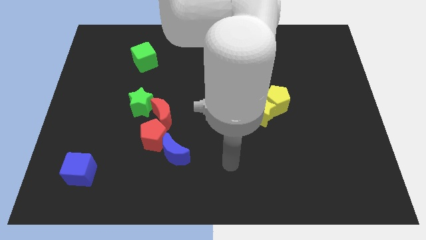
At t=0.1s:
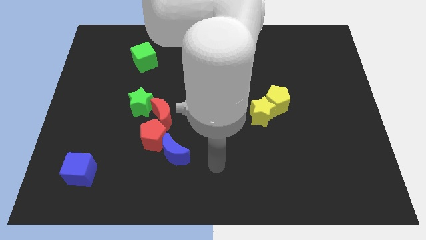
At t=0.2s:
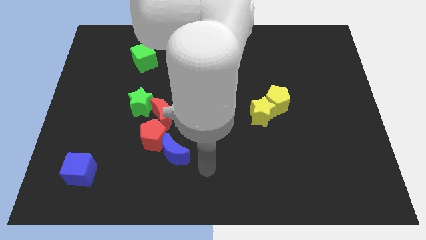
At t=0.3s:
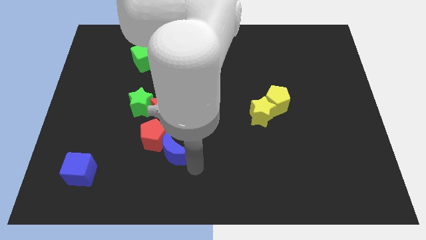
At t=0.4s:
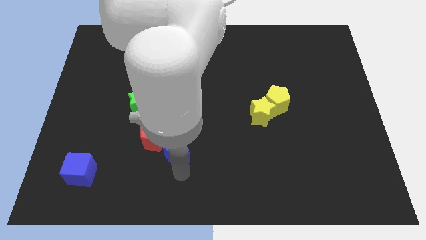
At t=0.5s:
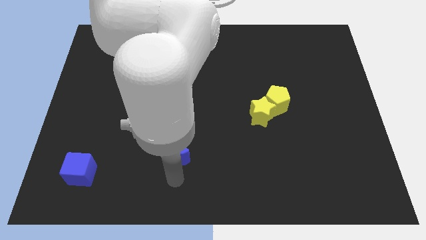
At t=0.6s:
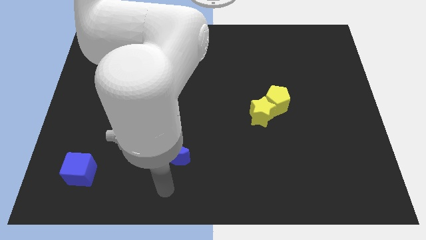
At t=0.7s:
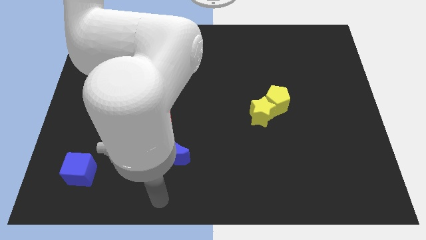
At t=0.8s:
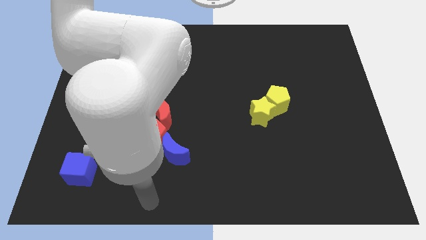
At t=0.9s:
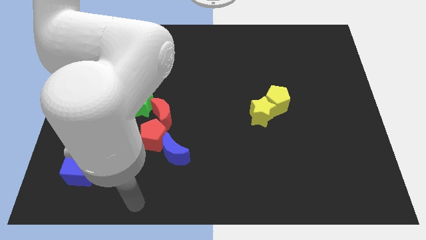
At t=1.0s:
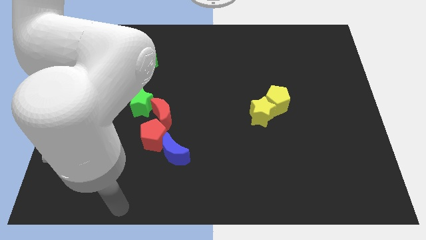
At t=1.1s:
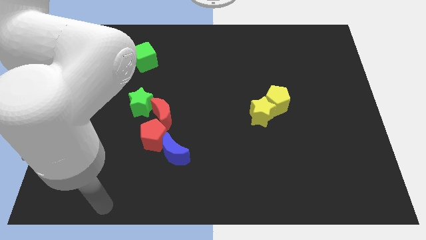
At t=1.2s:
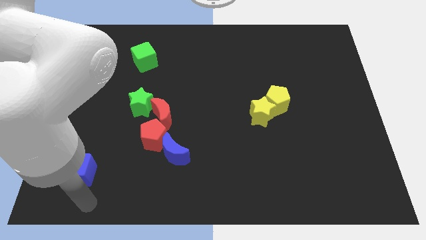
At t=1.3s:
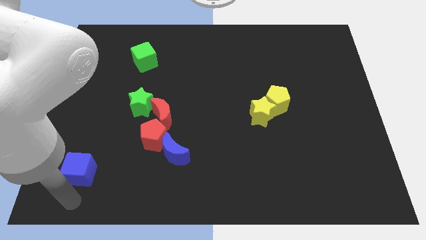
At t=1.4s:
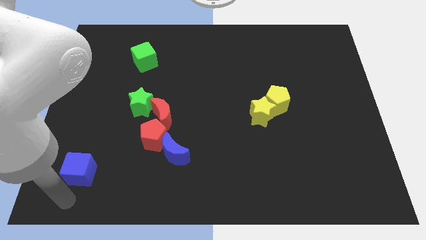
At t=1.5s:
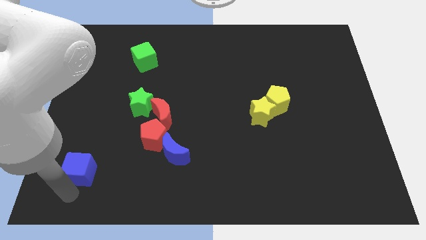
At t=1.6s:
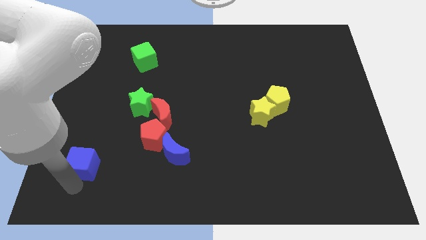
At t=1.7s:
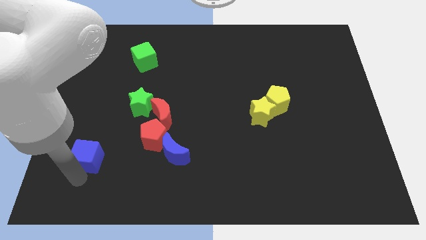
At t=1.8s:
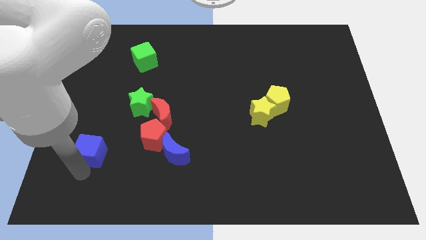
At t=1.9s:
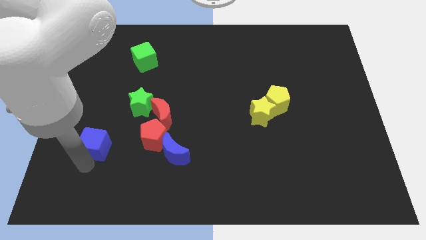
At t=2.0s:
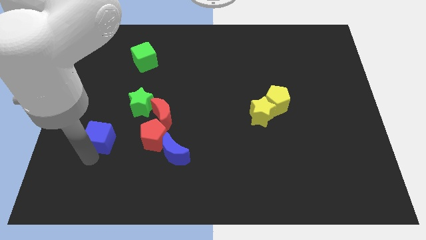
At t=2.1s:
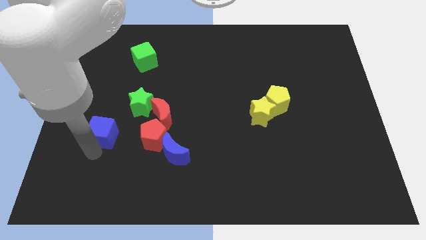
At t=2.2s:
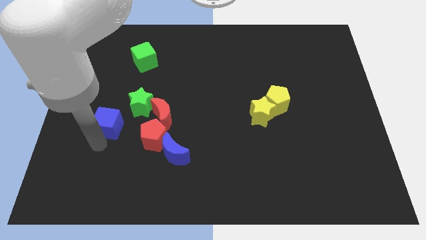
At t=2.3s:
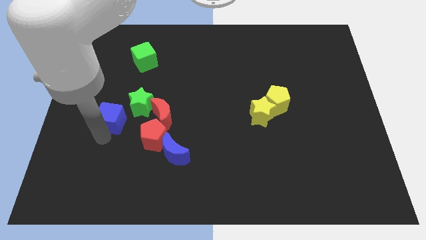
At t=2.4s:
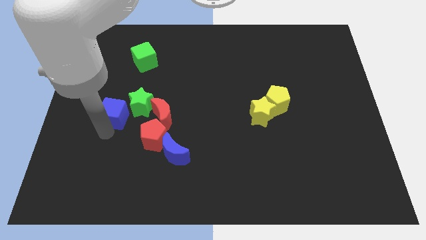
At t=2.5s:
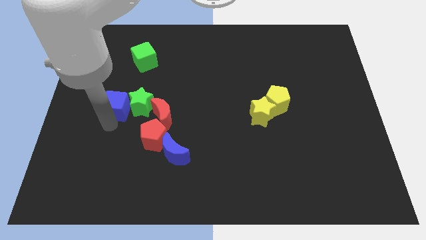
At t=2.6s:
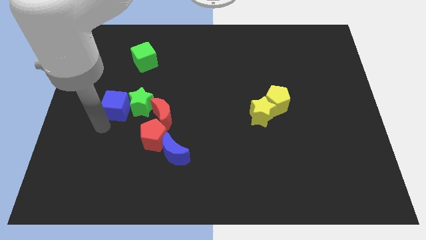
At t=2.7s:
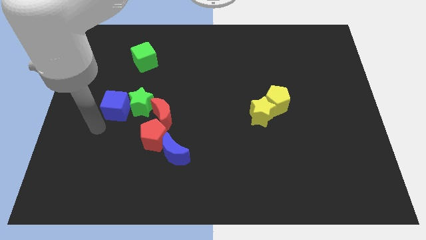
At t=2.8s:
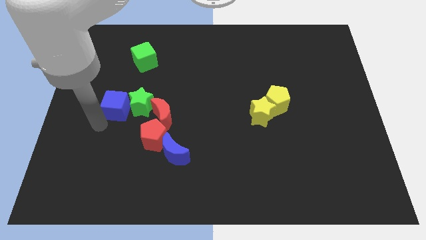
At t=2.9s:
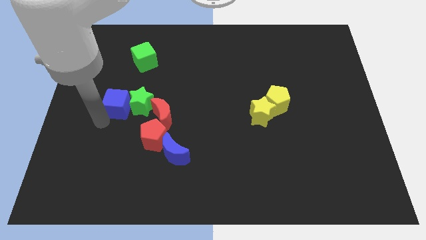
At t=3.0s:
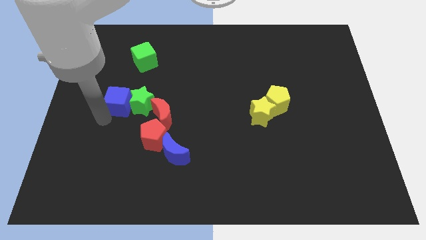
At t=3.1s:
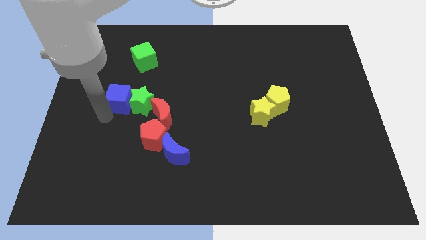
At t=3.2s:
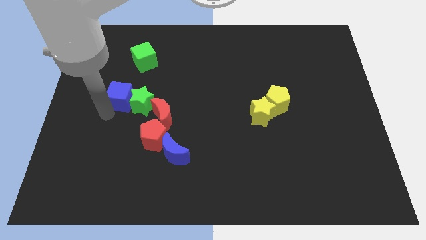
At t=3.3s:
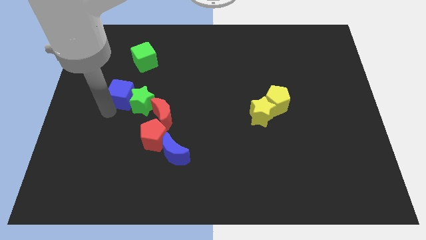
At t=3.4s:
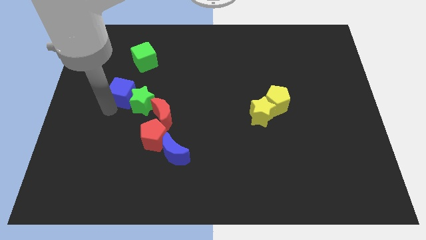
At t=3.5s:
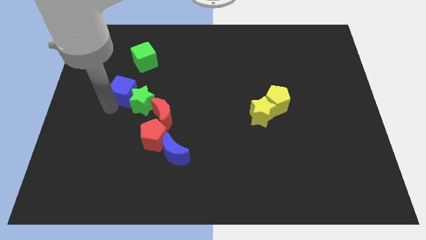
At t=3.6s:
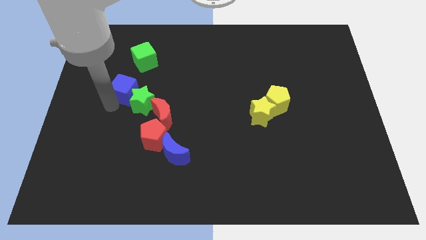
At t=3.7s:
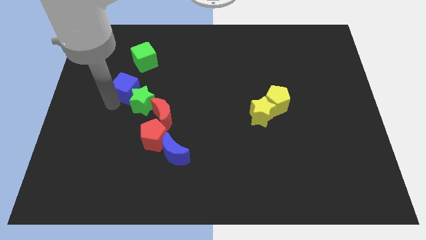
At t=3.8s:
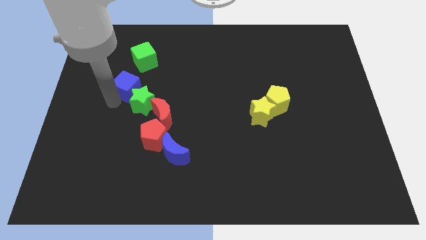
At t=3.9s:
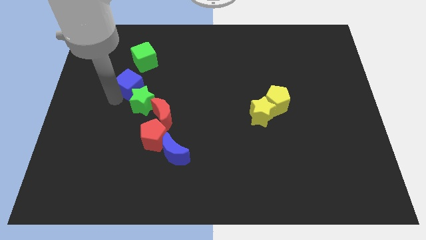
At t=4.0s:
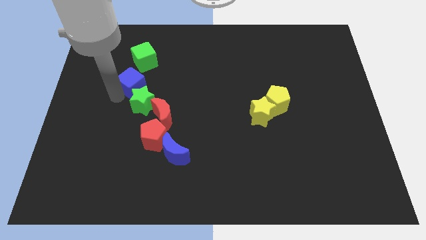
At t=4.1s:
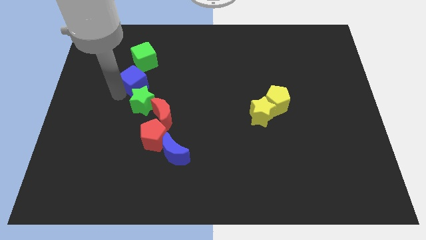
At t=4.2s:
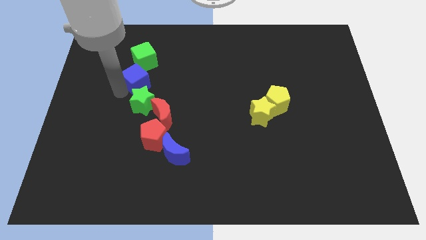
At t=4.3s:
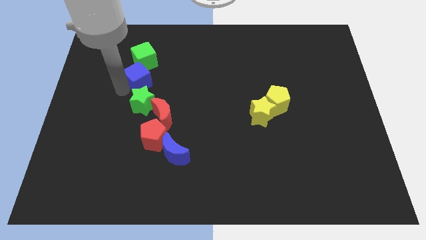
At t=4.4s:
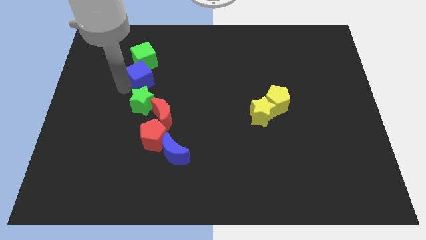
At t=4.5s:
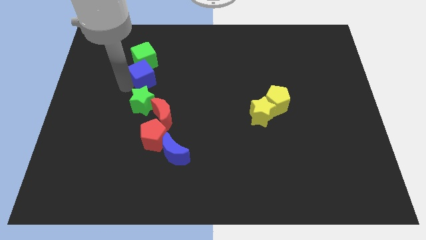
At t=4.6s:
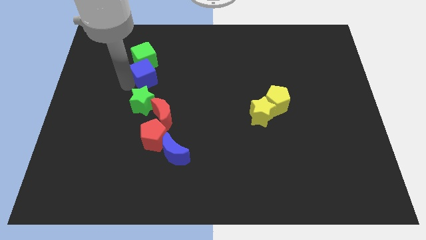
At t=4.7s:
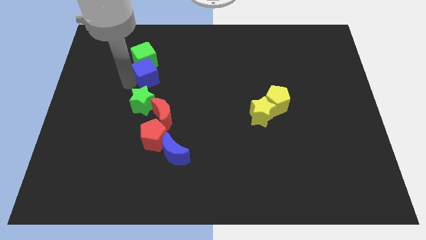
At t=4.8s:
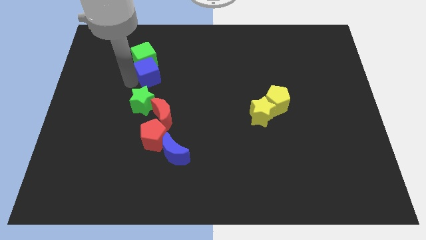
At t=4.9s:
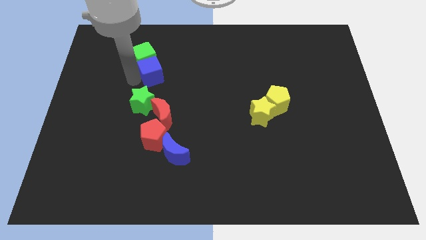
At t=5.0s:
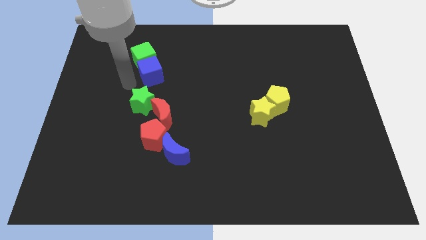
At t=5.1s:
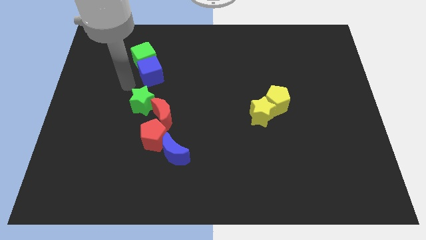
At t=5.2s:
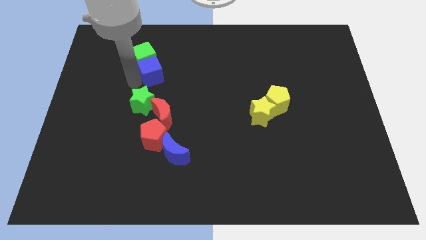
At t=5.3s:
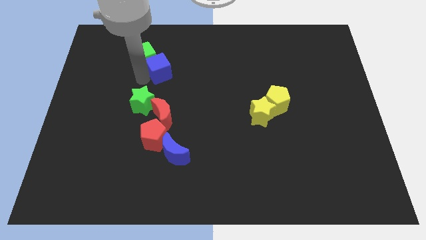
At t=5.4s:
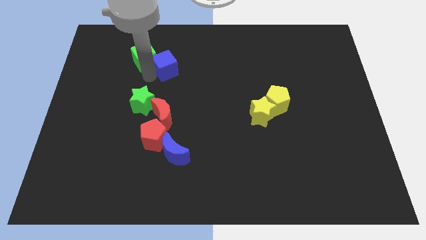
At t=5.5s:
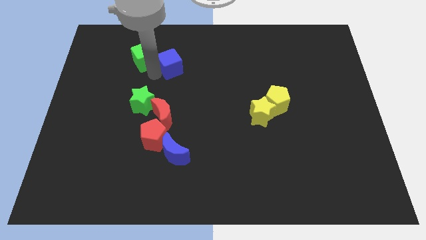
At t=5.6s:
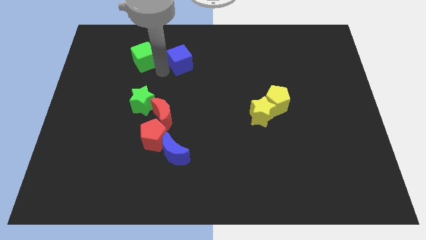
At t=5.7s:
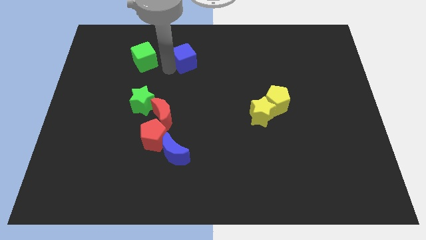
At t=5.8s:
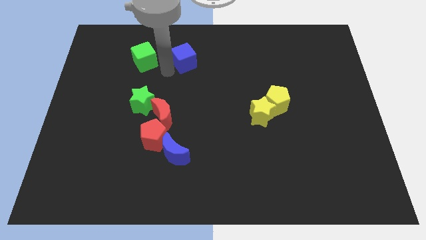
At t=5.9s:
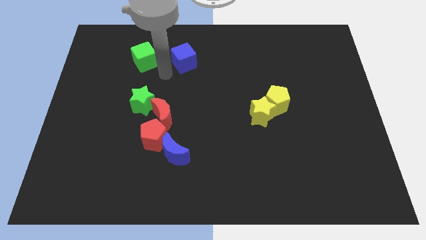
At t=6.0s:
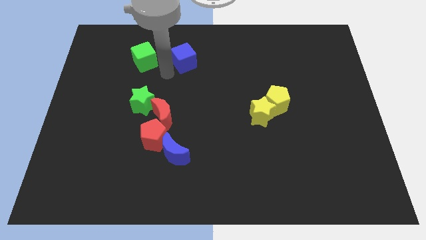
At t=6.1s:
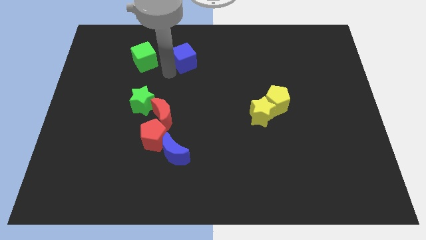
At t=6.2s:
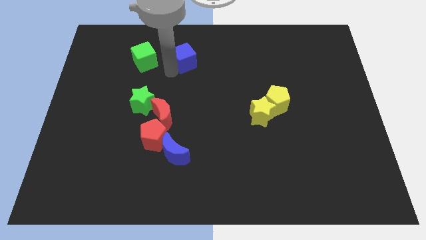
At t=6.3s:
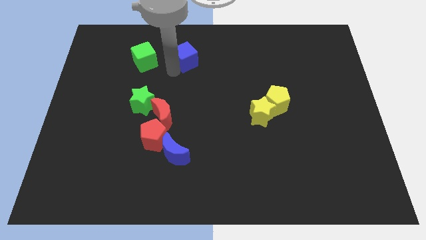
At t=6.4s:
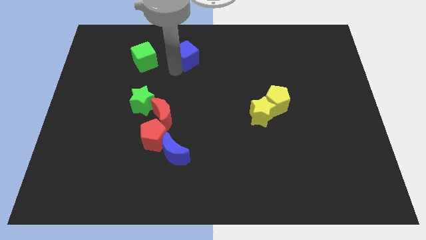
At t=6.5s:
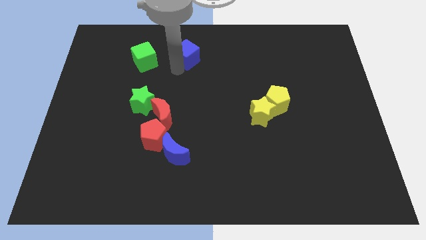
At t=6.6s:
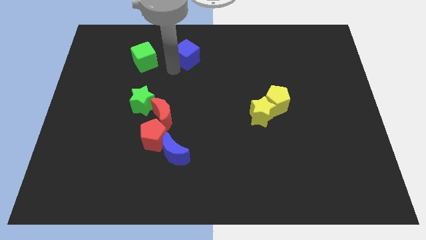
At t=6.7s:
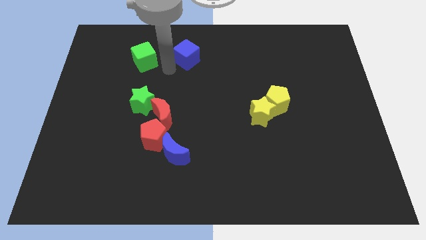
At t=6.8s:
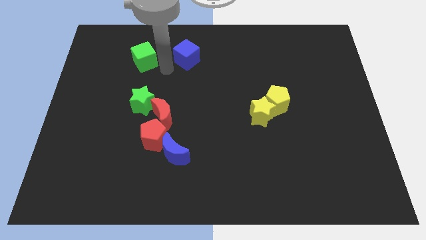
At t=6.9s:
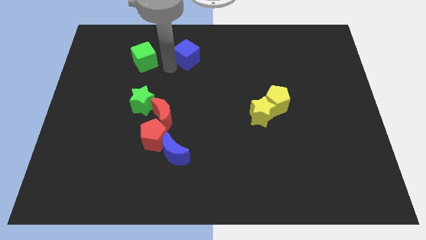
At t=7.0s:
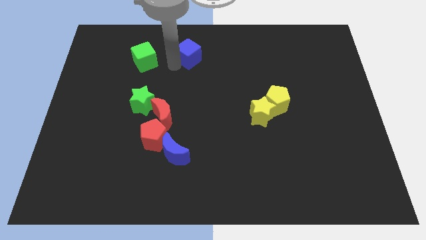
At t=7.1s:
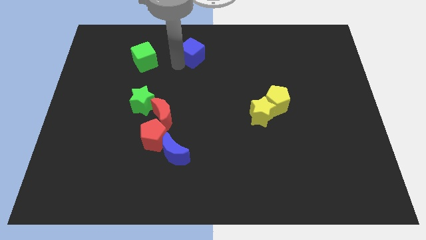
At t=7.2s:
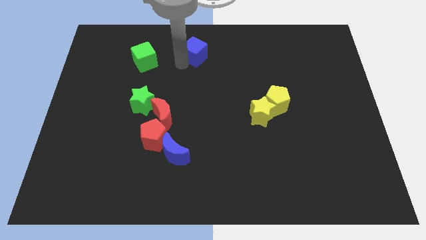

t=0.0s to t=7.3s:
move the blue cube to the top
